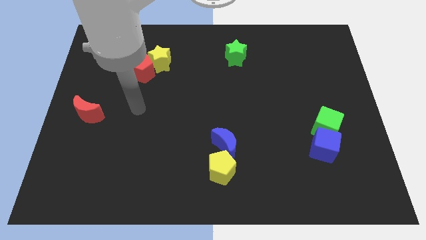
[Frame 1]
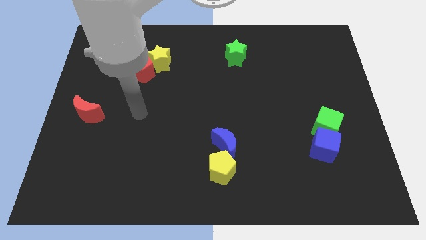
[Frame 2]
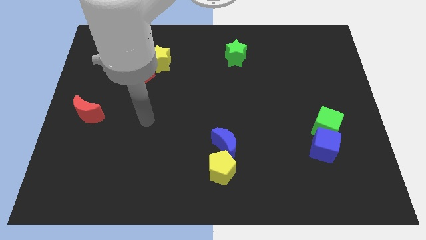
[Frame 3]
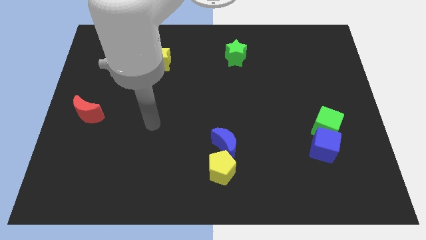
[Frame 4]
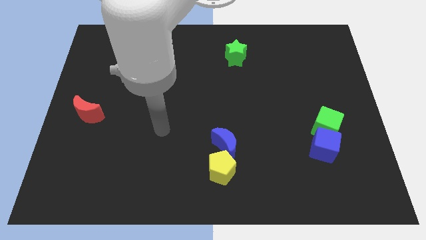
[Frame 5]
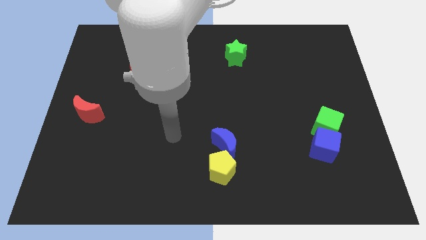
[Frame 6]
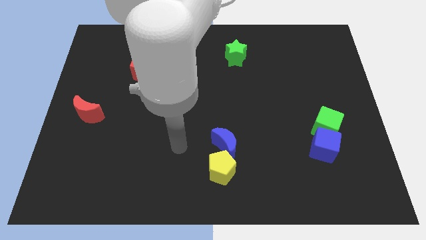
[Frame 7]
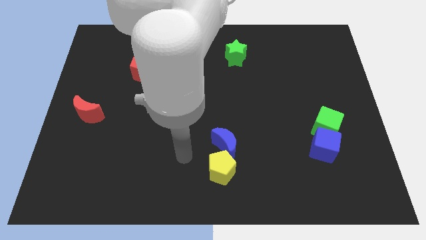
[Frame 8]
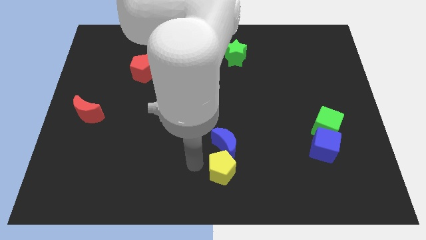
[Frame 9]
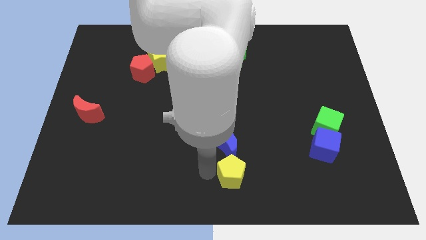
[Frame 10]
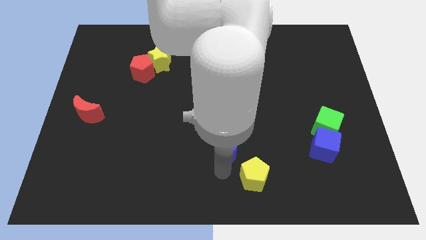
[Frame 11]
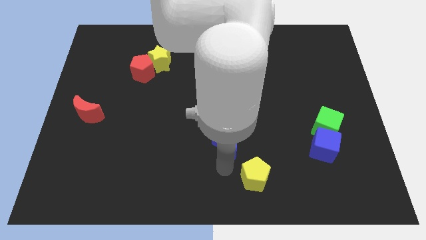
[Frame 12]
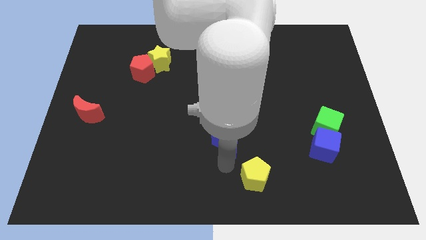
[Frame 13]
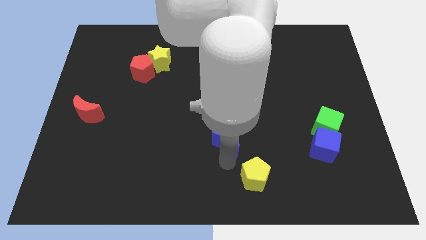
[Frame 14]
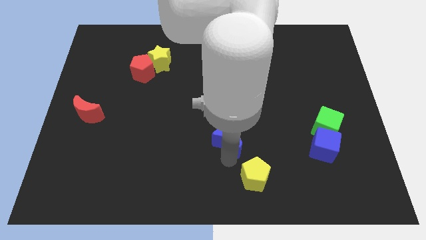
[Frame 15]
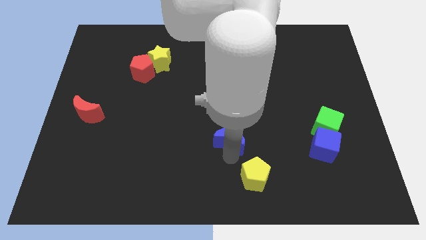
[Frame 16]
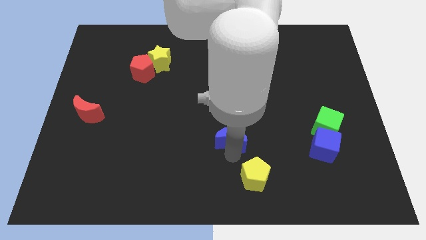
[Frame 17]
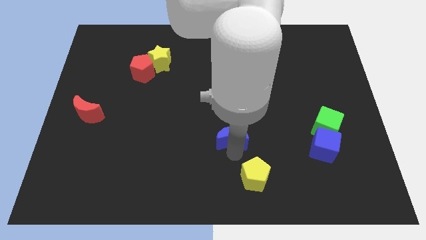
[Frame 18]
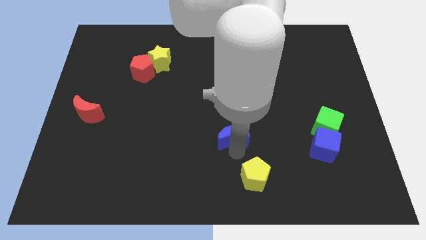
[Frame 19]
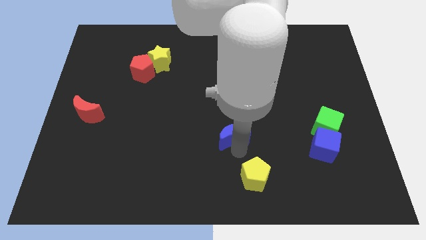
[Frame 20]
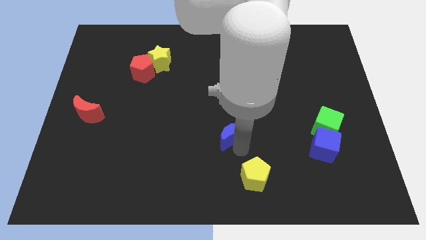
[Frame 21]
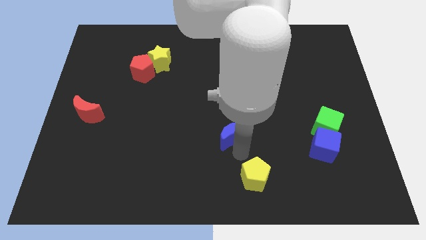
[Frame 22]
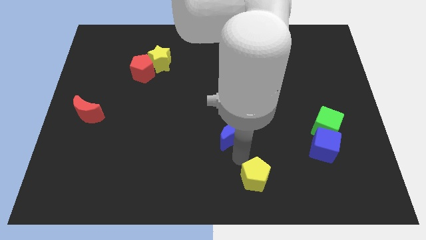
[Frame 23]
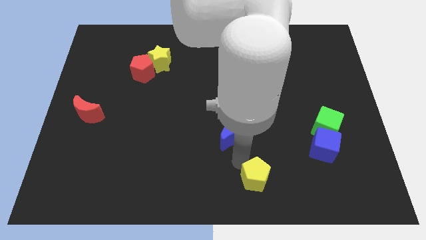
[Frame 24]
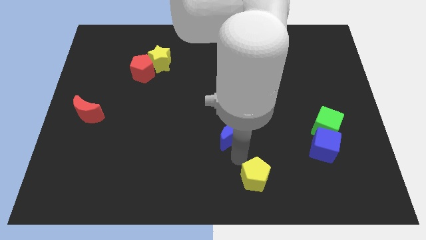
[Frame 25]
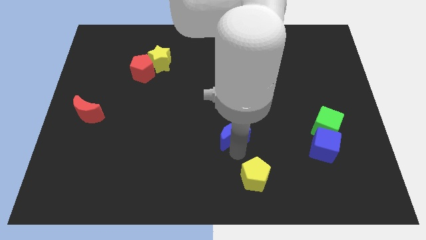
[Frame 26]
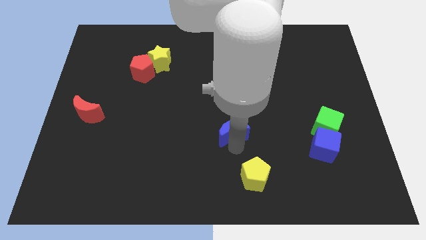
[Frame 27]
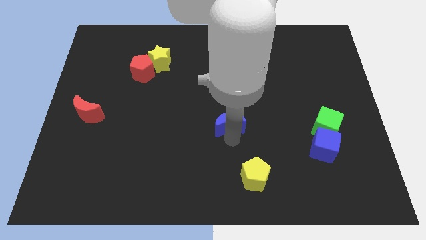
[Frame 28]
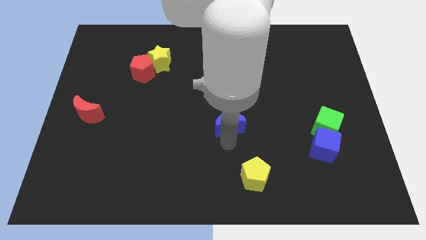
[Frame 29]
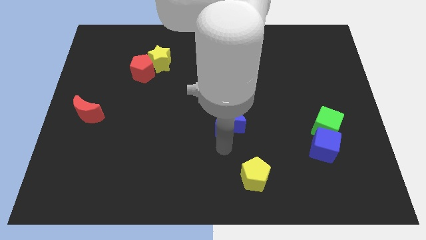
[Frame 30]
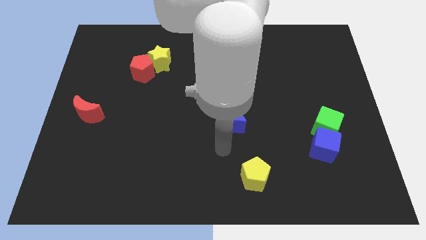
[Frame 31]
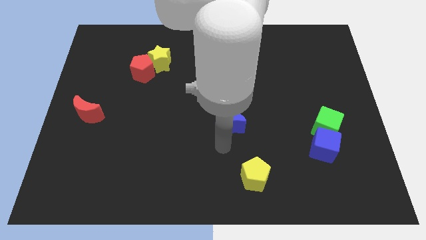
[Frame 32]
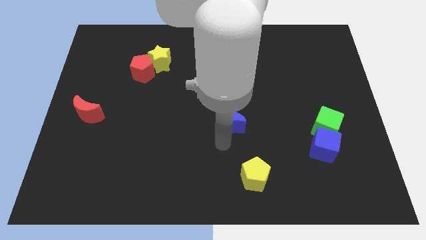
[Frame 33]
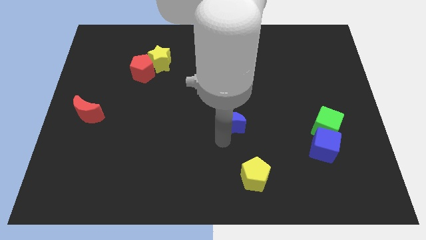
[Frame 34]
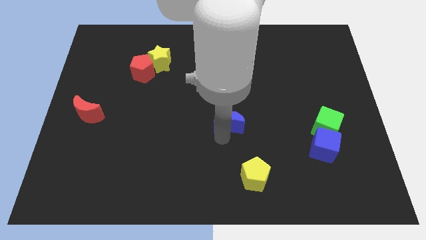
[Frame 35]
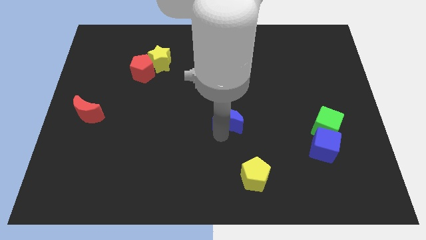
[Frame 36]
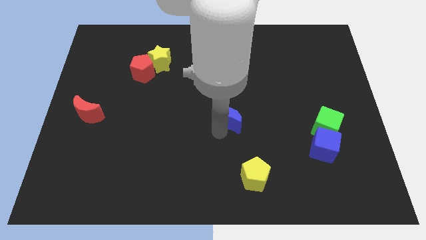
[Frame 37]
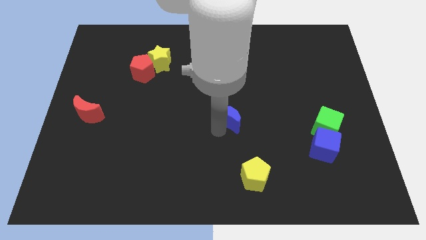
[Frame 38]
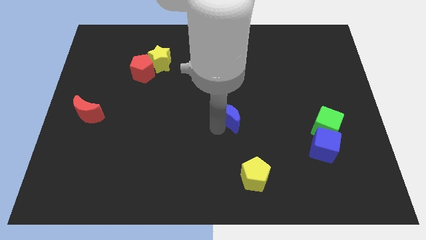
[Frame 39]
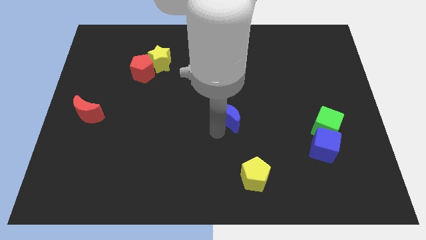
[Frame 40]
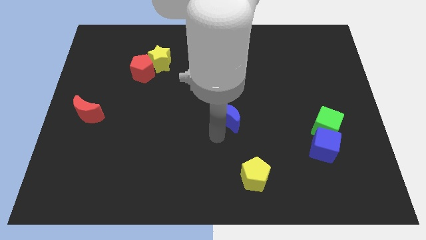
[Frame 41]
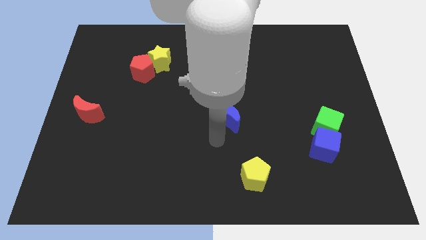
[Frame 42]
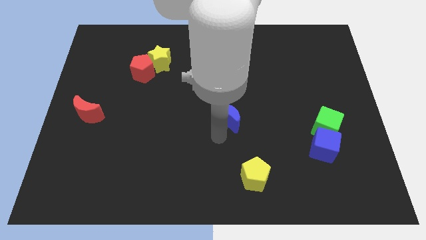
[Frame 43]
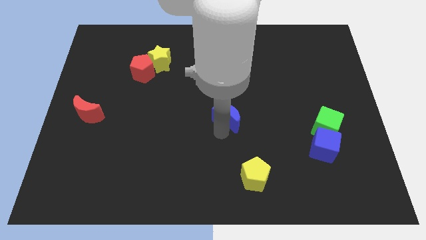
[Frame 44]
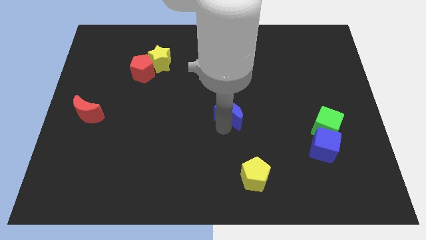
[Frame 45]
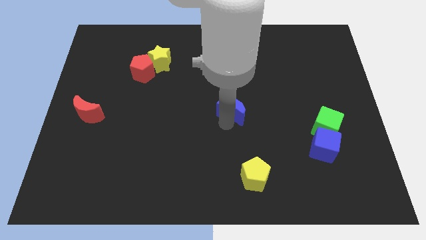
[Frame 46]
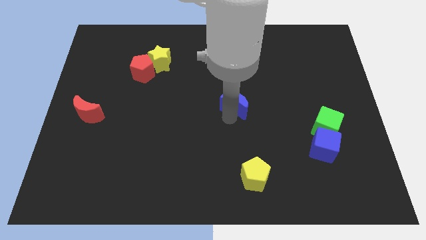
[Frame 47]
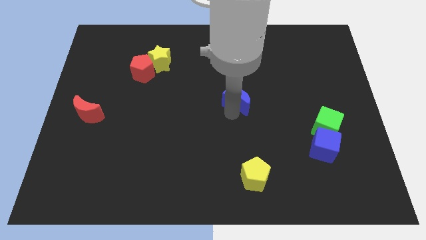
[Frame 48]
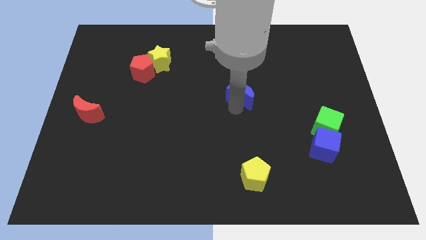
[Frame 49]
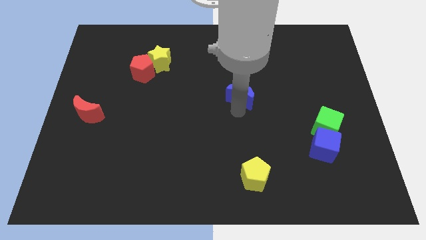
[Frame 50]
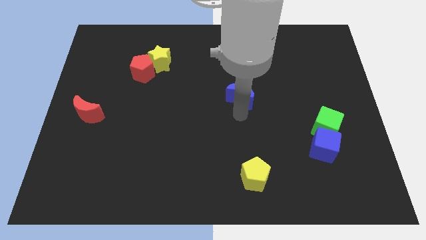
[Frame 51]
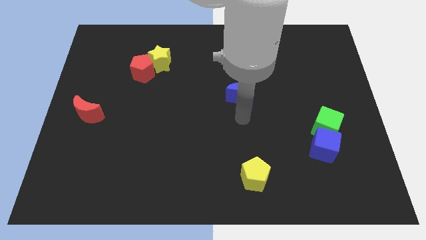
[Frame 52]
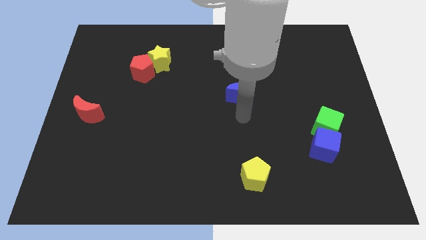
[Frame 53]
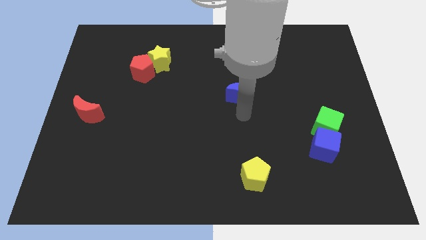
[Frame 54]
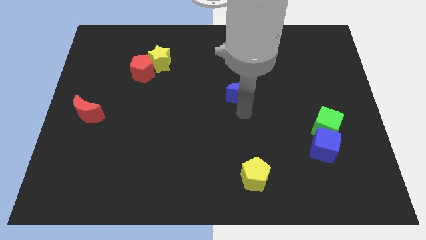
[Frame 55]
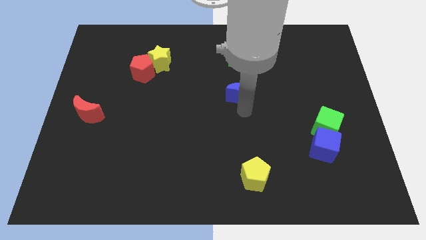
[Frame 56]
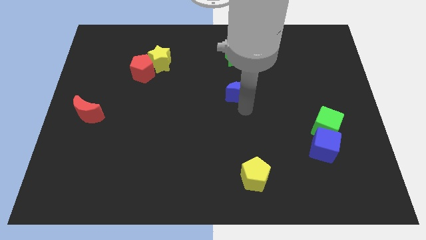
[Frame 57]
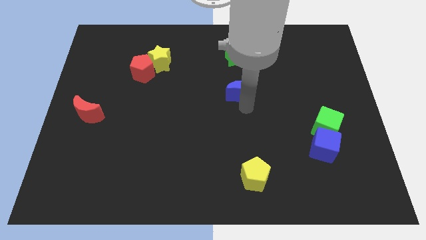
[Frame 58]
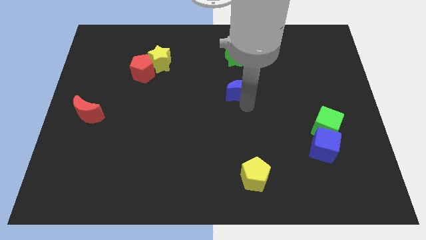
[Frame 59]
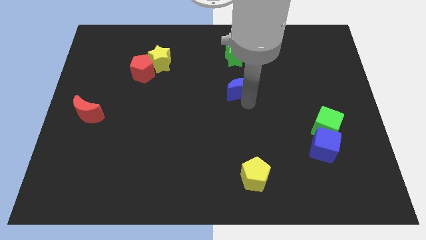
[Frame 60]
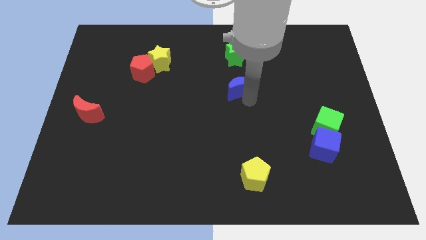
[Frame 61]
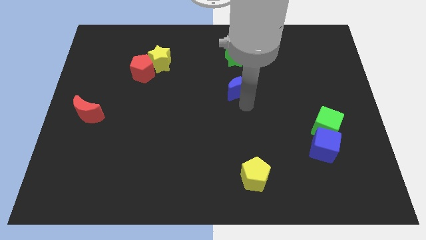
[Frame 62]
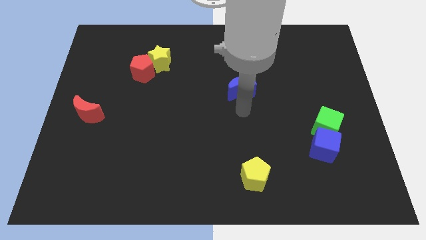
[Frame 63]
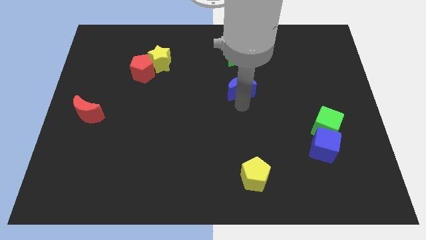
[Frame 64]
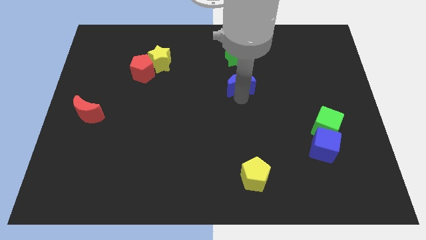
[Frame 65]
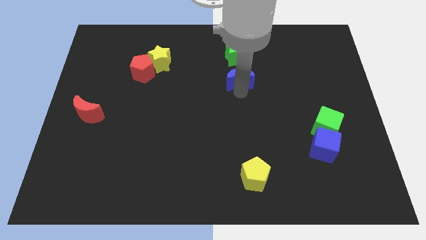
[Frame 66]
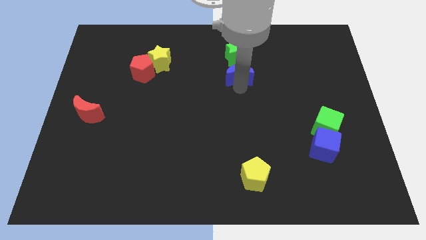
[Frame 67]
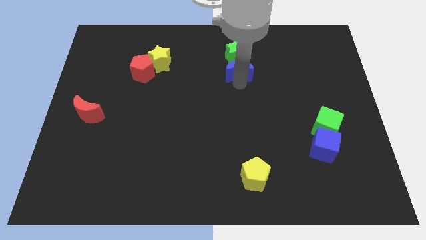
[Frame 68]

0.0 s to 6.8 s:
slide the blue moon close to the green star

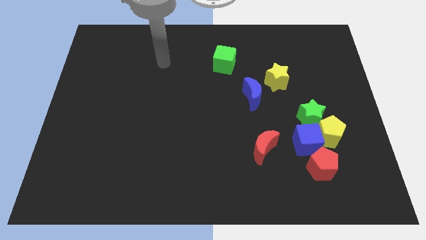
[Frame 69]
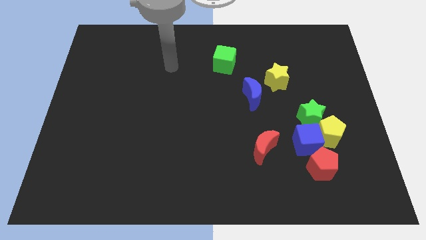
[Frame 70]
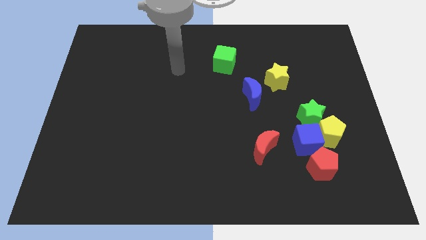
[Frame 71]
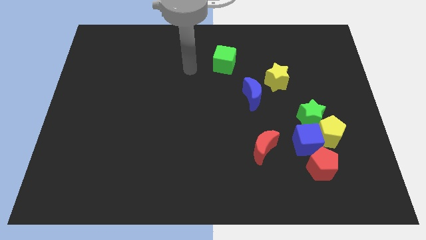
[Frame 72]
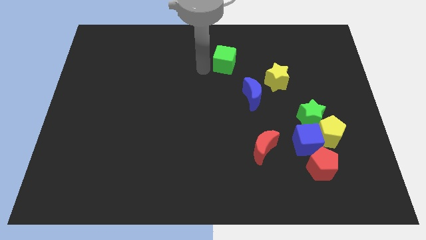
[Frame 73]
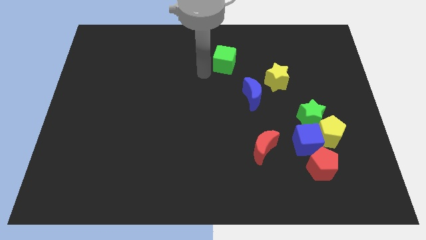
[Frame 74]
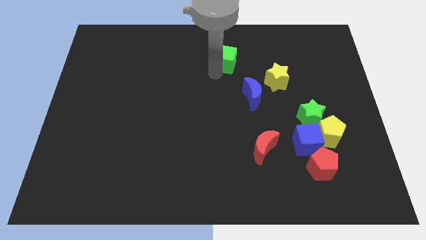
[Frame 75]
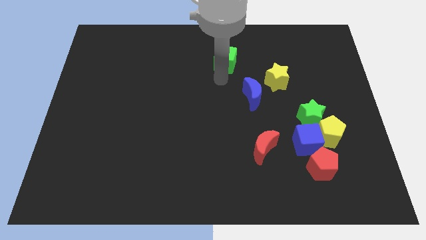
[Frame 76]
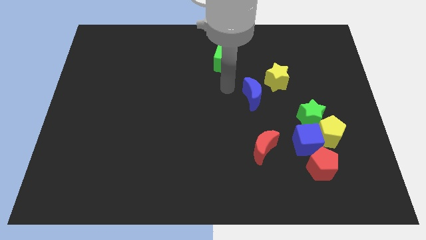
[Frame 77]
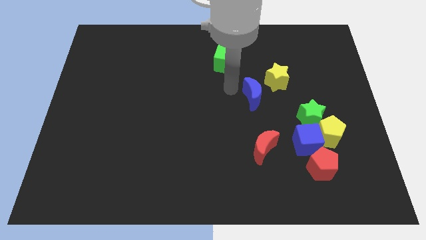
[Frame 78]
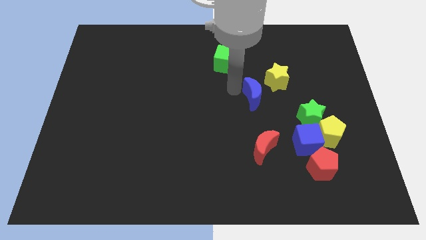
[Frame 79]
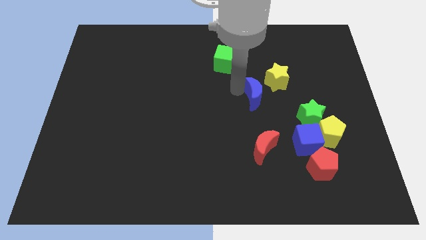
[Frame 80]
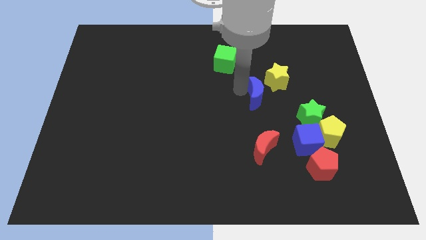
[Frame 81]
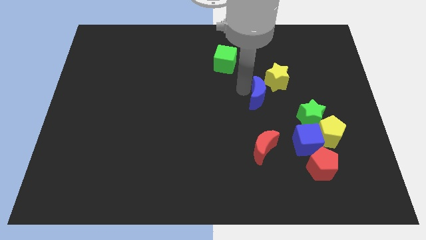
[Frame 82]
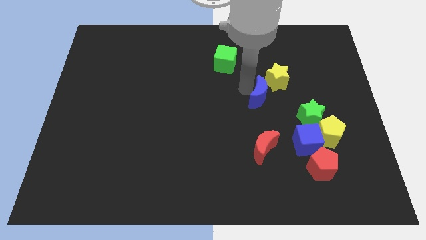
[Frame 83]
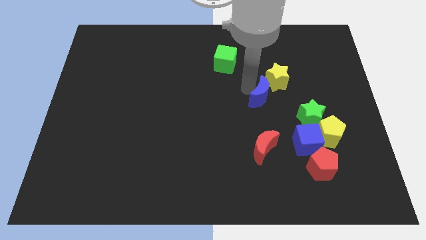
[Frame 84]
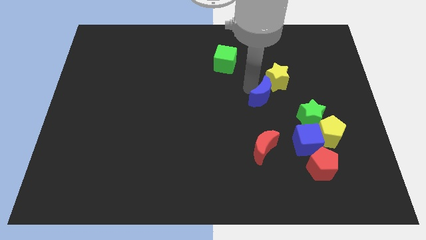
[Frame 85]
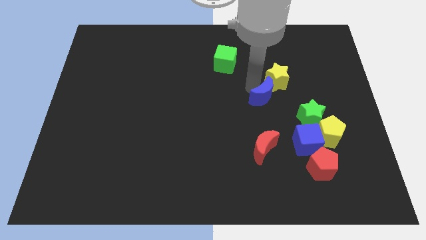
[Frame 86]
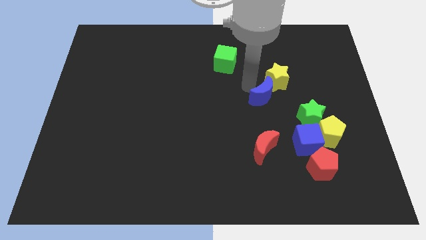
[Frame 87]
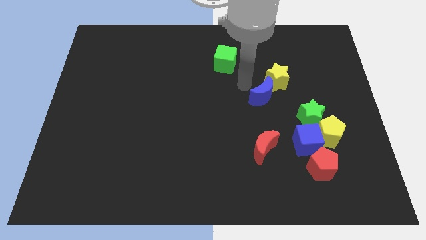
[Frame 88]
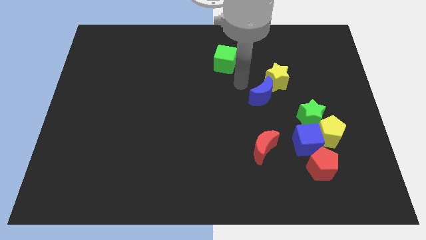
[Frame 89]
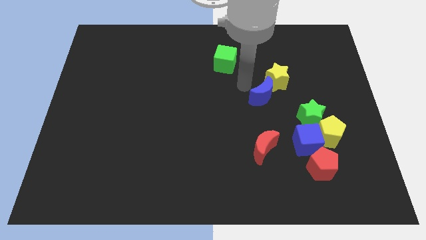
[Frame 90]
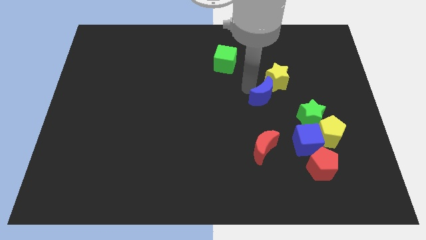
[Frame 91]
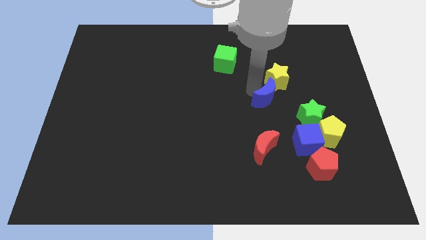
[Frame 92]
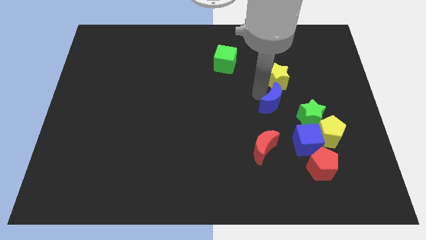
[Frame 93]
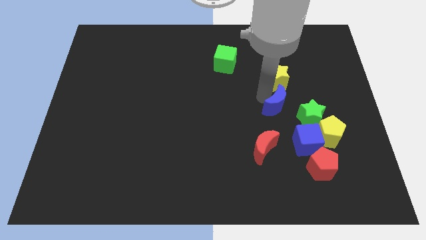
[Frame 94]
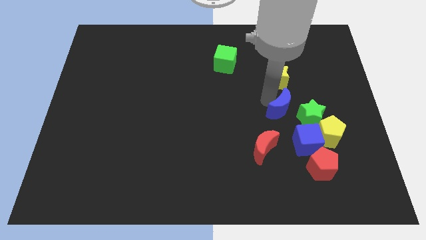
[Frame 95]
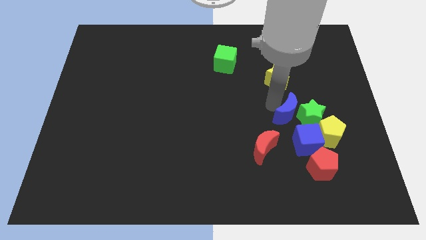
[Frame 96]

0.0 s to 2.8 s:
move the blue moon to the green star
